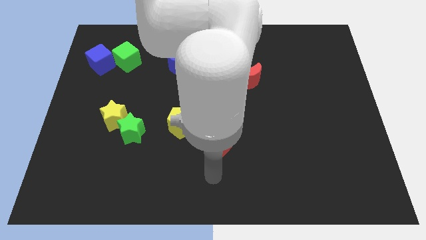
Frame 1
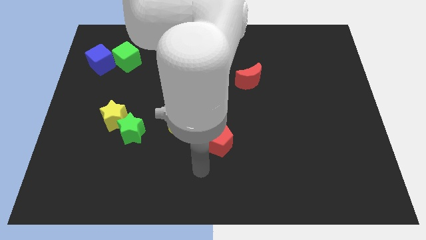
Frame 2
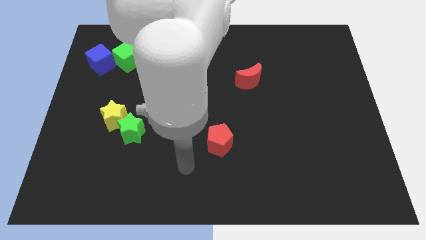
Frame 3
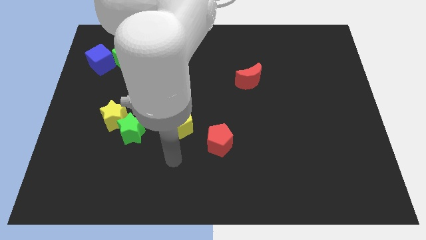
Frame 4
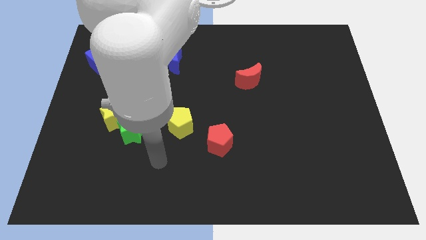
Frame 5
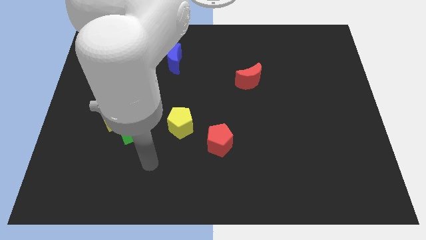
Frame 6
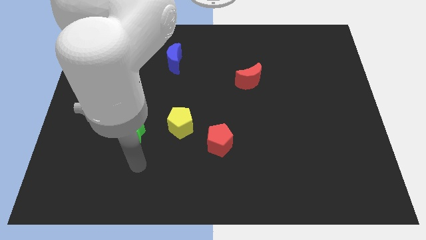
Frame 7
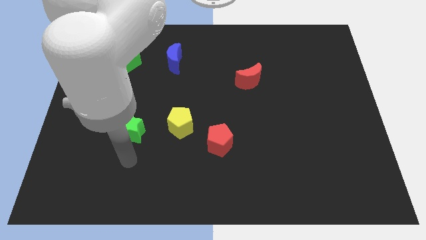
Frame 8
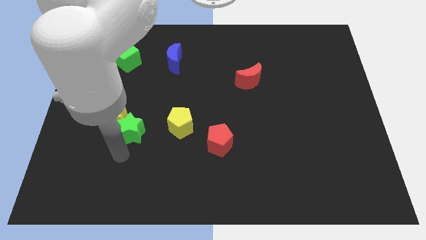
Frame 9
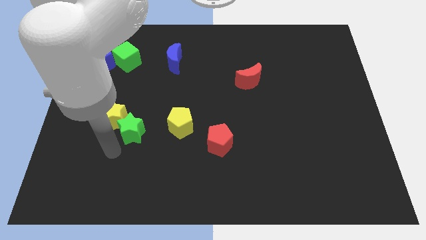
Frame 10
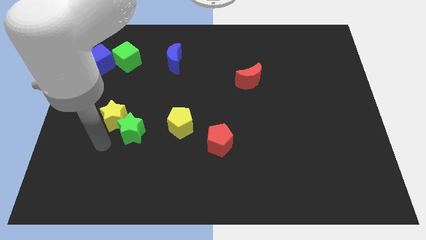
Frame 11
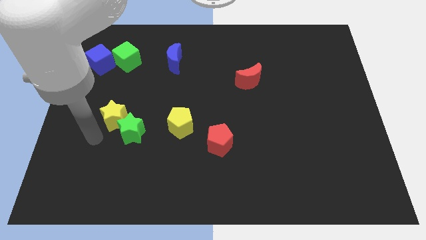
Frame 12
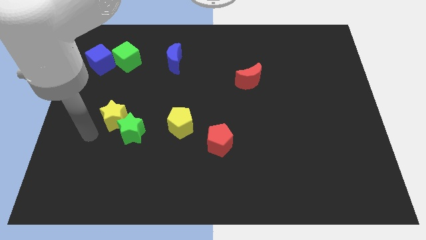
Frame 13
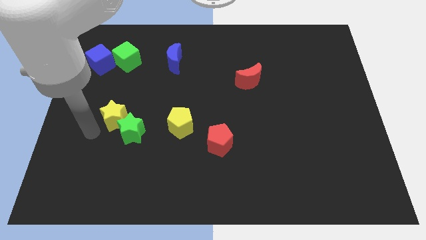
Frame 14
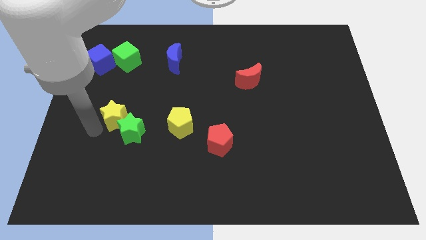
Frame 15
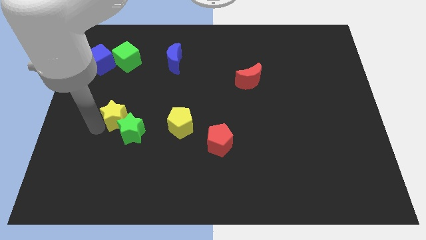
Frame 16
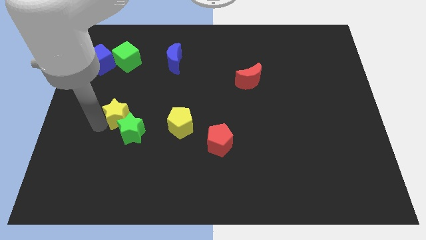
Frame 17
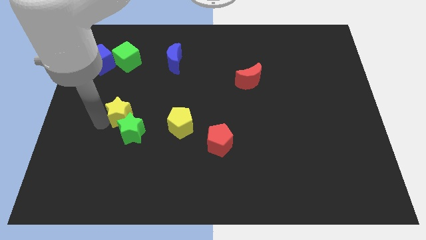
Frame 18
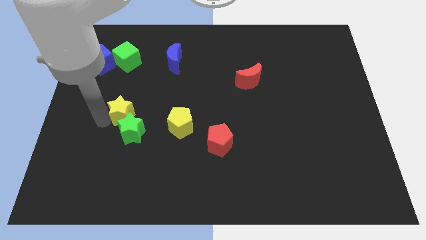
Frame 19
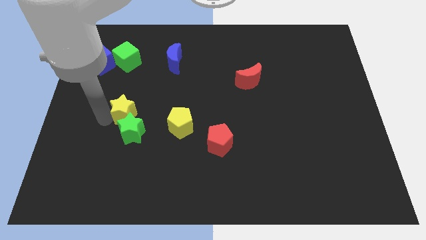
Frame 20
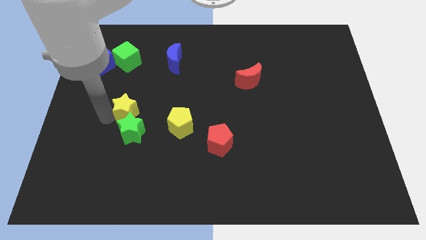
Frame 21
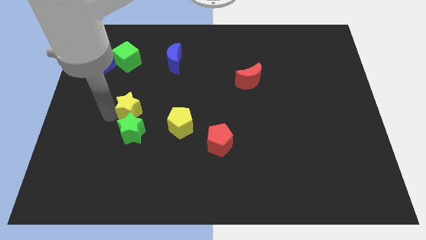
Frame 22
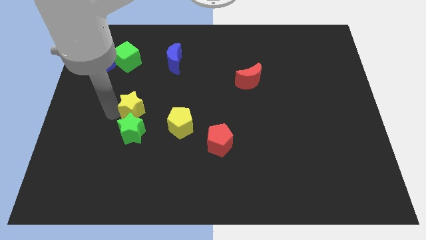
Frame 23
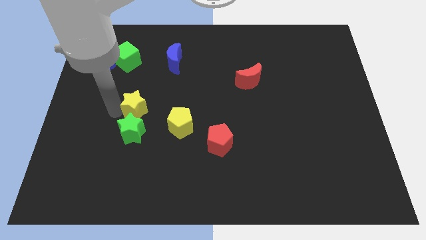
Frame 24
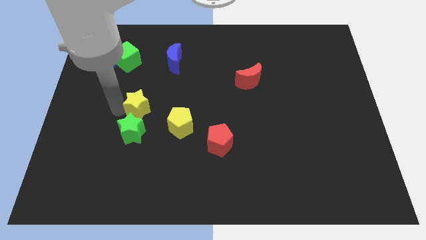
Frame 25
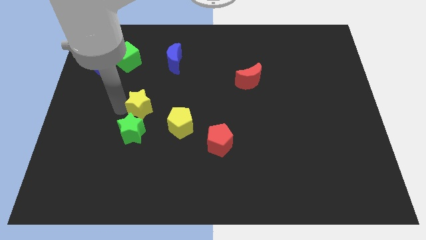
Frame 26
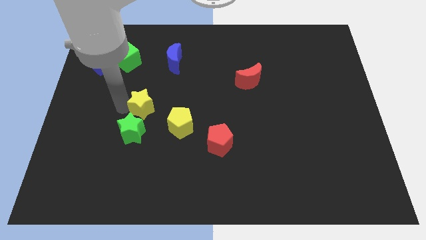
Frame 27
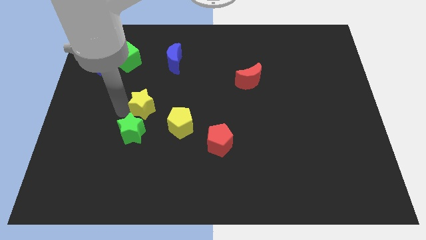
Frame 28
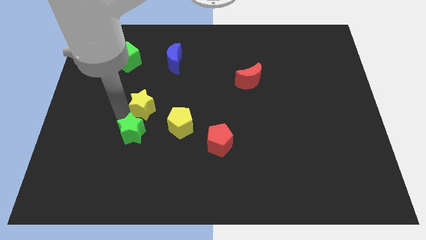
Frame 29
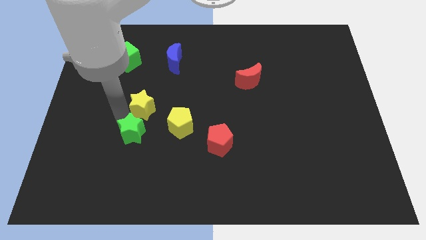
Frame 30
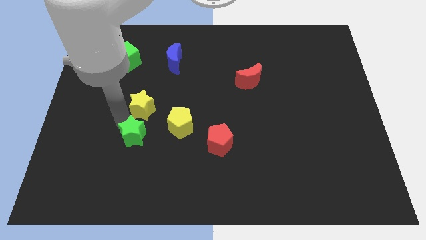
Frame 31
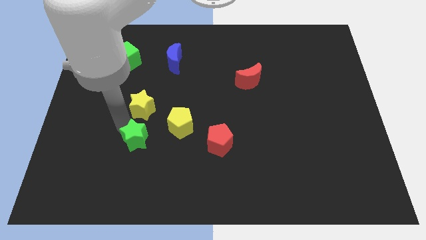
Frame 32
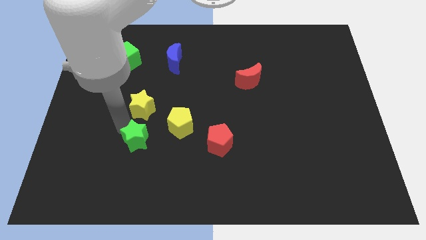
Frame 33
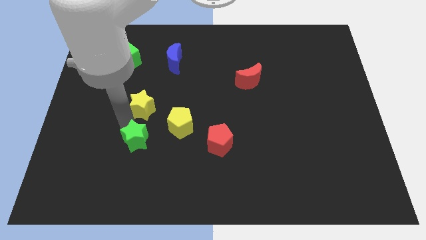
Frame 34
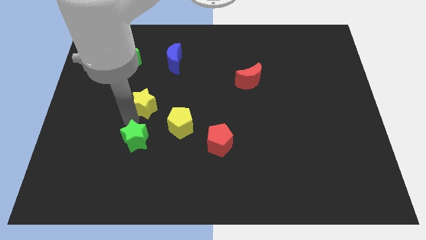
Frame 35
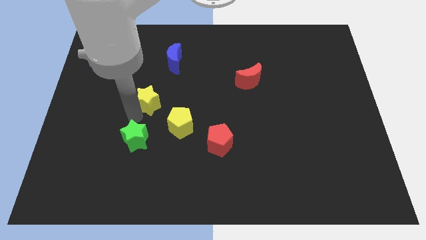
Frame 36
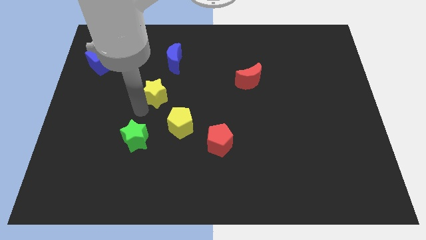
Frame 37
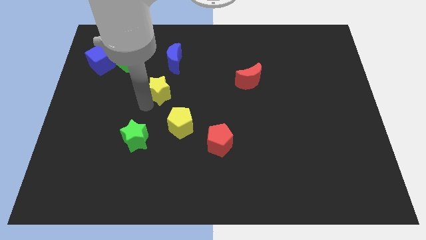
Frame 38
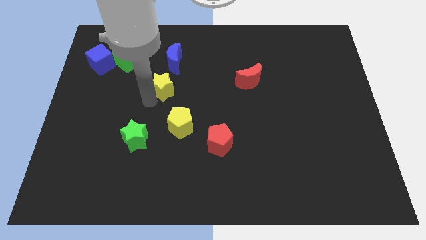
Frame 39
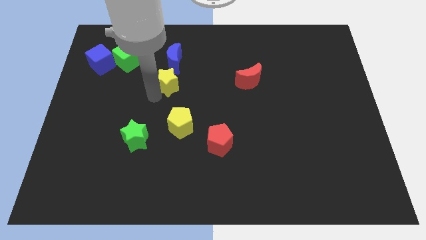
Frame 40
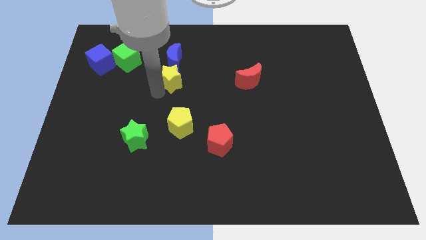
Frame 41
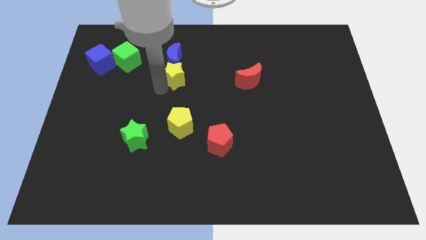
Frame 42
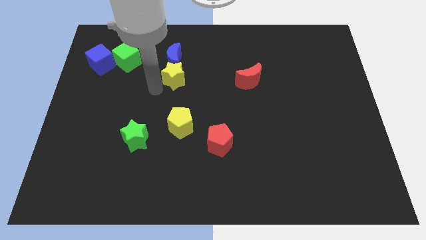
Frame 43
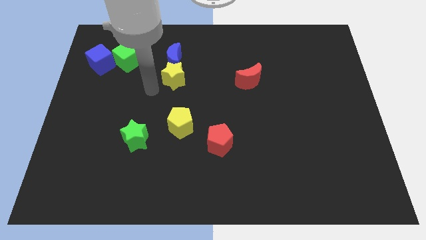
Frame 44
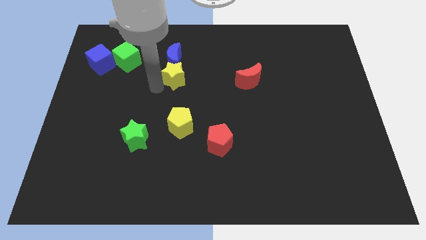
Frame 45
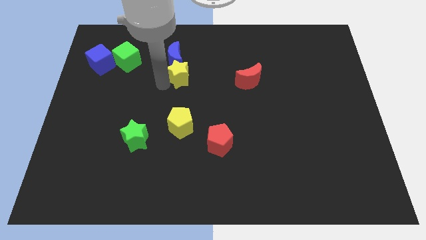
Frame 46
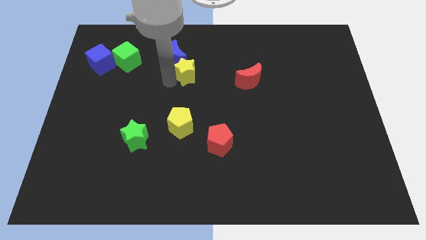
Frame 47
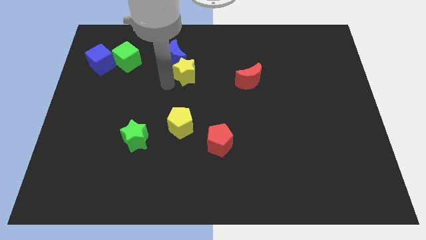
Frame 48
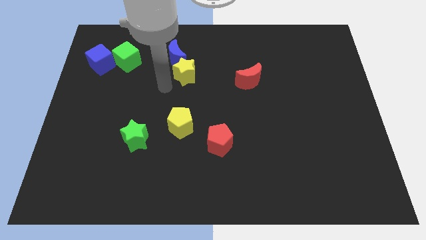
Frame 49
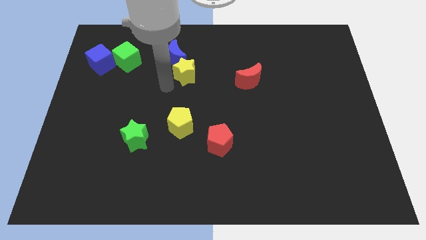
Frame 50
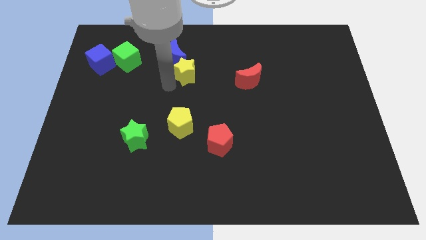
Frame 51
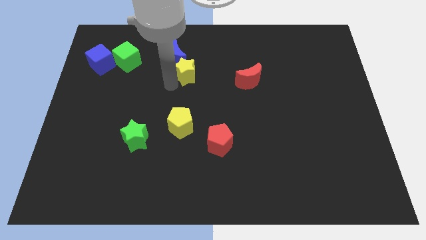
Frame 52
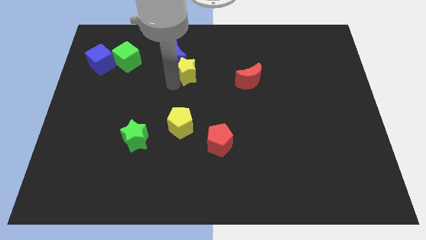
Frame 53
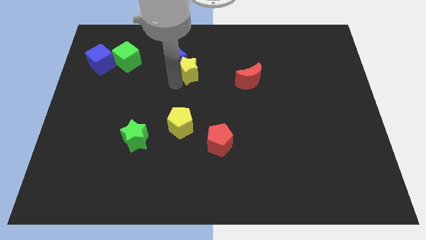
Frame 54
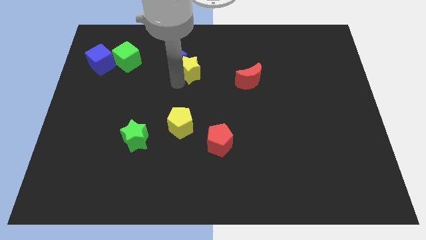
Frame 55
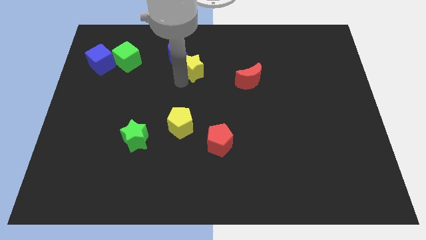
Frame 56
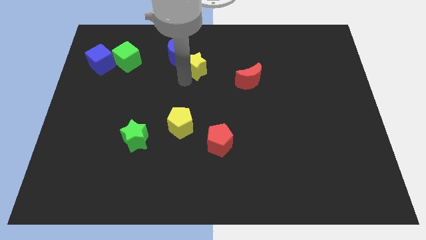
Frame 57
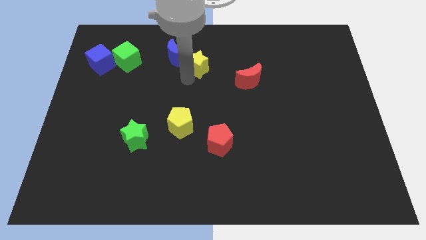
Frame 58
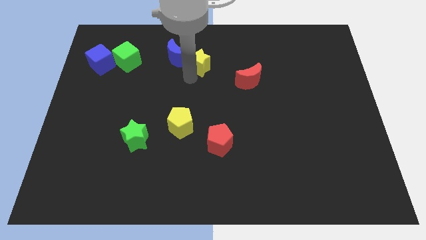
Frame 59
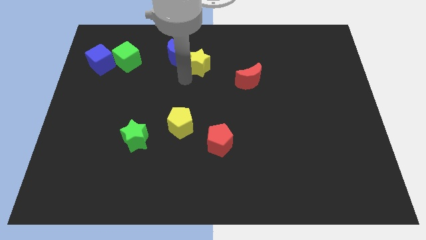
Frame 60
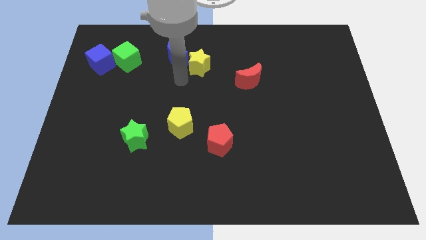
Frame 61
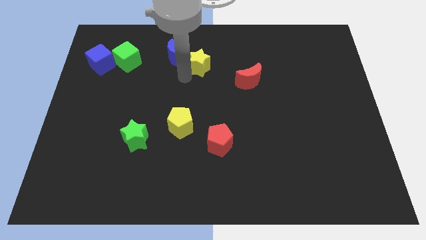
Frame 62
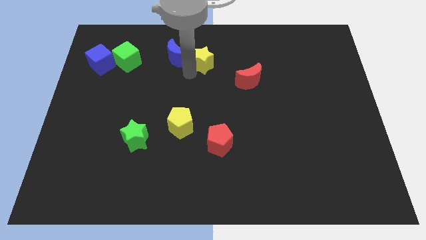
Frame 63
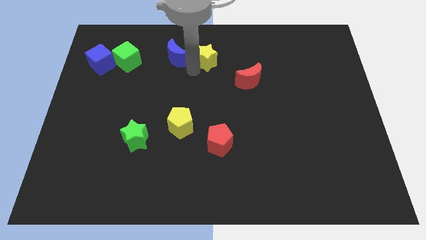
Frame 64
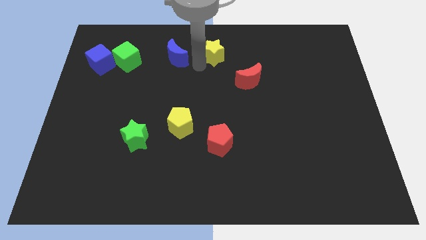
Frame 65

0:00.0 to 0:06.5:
push the yellow star to the top
